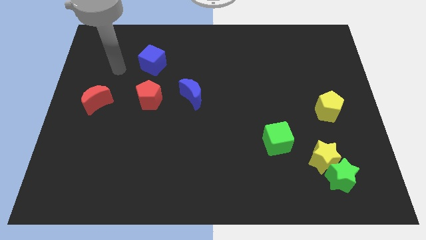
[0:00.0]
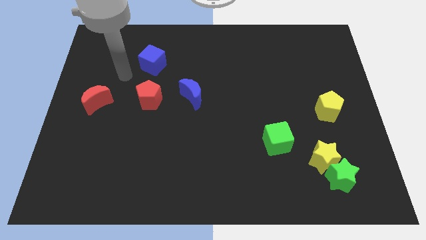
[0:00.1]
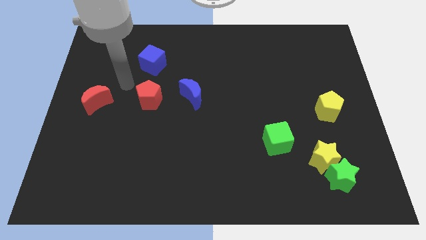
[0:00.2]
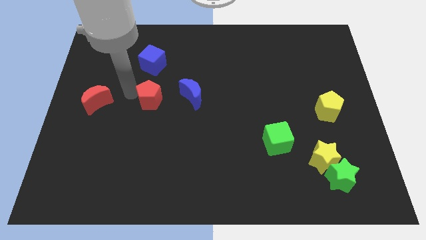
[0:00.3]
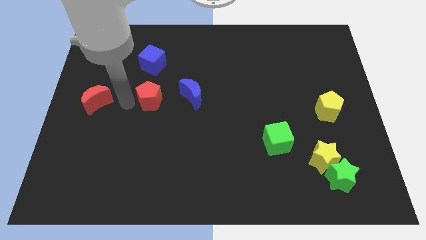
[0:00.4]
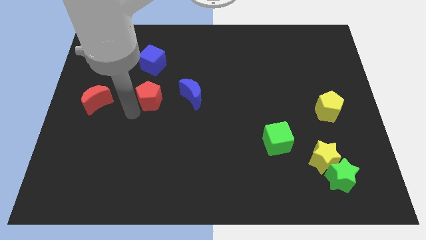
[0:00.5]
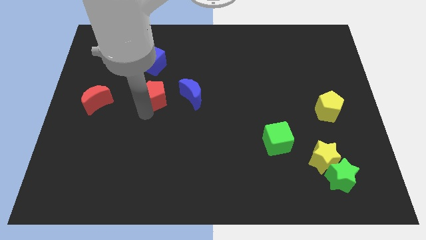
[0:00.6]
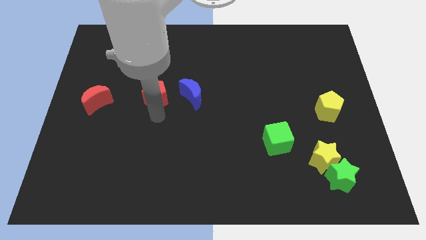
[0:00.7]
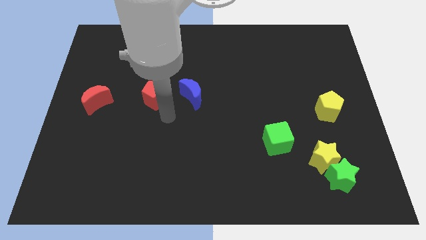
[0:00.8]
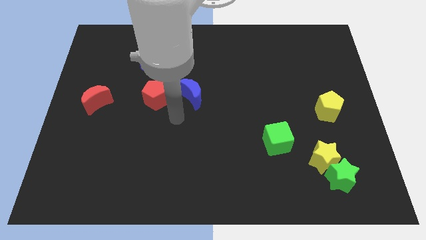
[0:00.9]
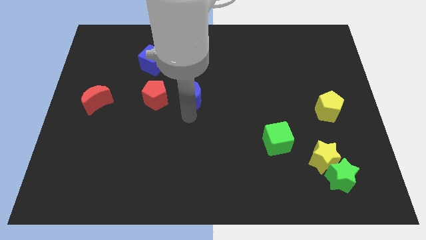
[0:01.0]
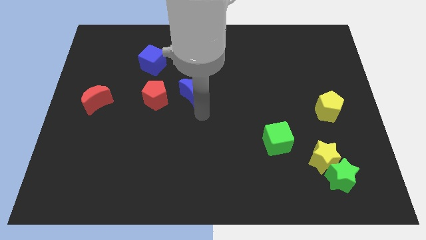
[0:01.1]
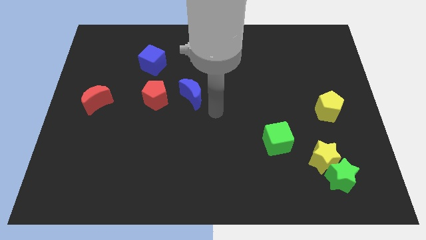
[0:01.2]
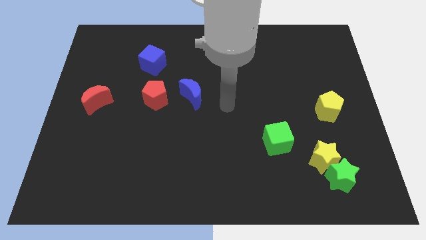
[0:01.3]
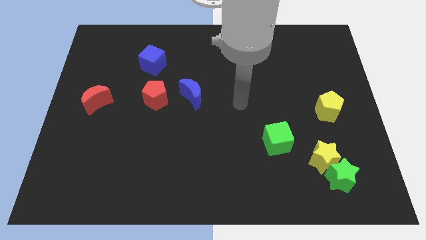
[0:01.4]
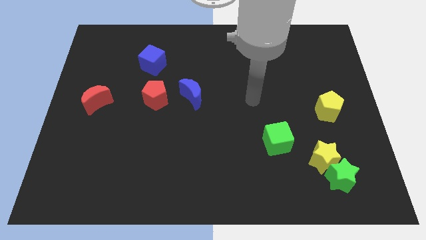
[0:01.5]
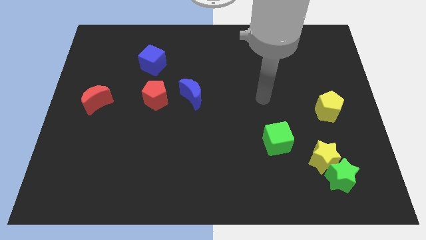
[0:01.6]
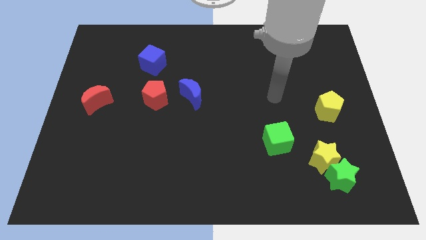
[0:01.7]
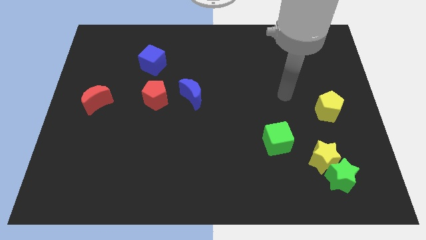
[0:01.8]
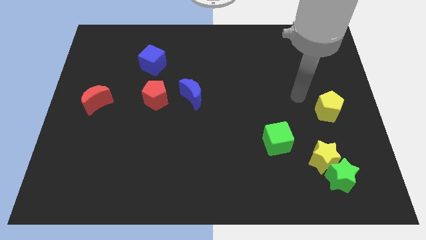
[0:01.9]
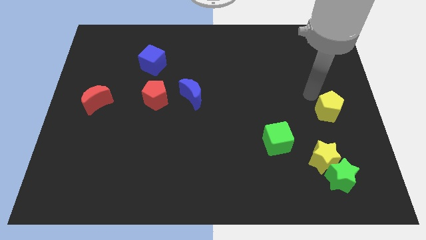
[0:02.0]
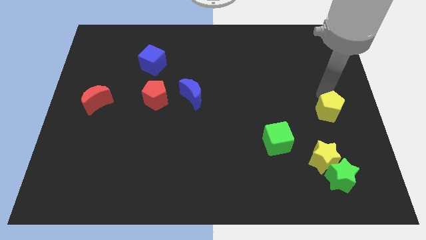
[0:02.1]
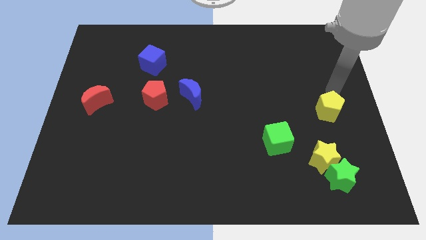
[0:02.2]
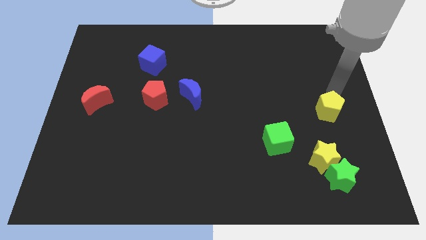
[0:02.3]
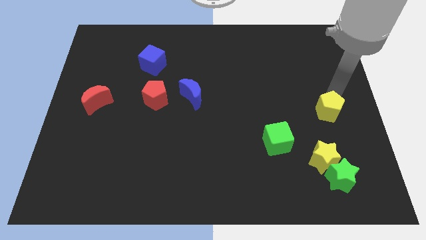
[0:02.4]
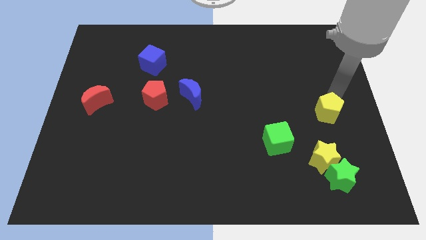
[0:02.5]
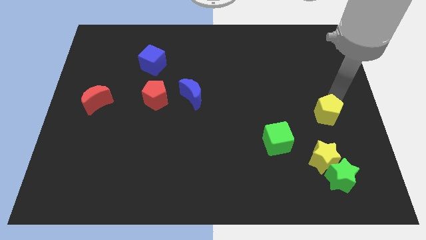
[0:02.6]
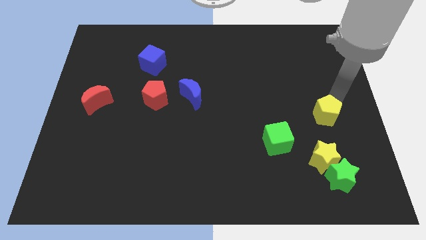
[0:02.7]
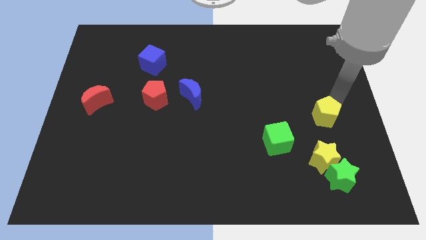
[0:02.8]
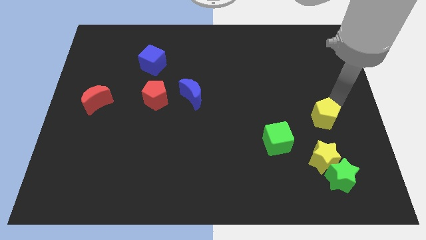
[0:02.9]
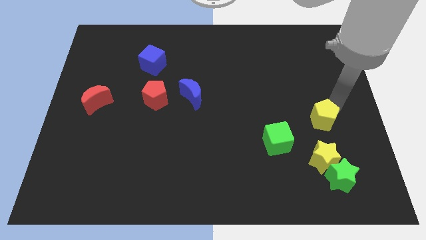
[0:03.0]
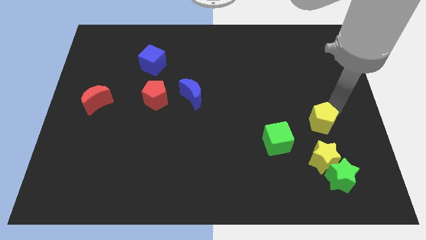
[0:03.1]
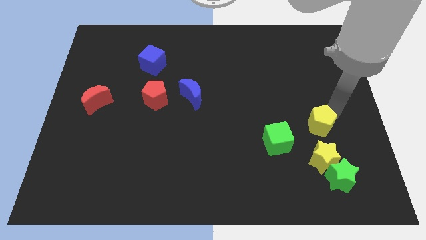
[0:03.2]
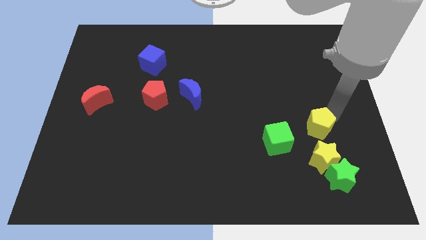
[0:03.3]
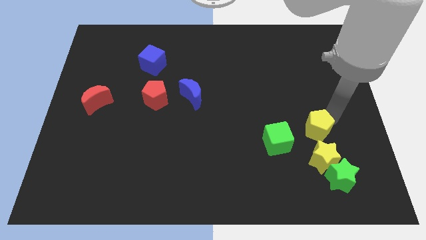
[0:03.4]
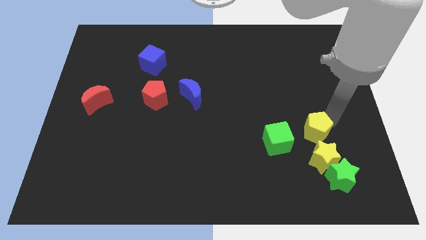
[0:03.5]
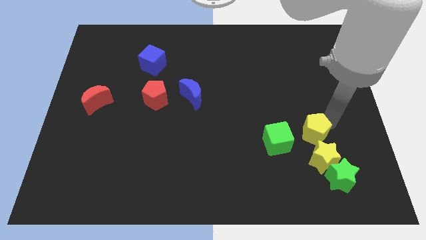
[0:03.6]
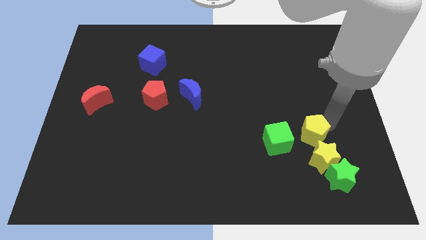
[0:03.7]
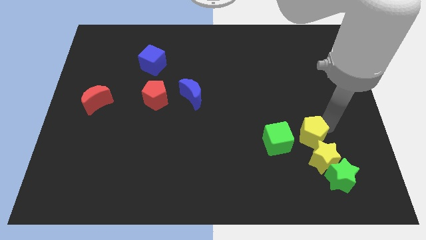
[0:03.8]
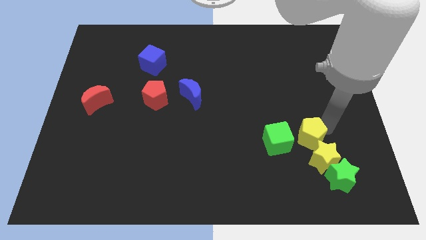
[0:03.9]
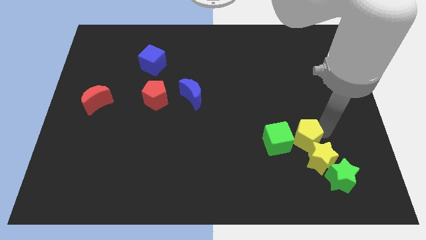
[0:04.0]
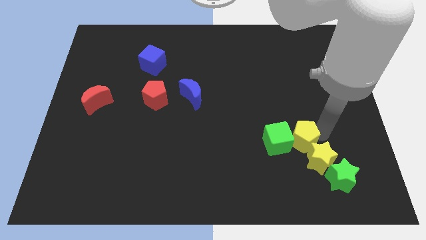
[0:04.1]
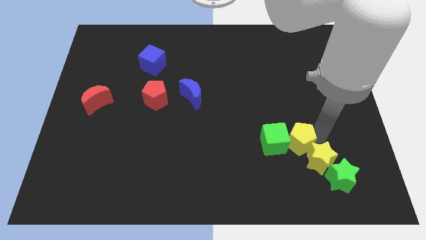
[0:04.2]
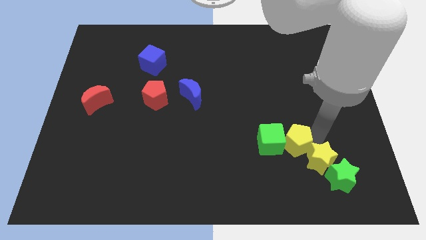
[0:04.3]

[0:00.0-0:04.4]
put the yellow pentagon just left of the yellow star

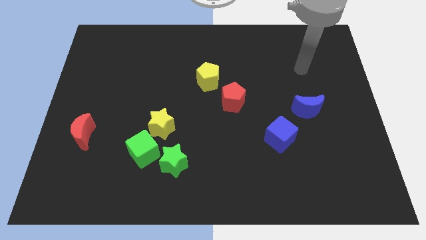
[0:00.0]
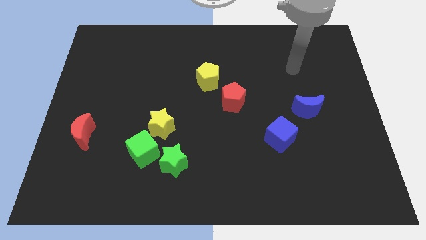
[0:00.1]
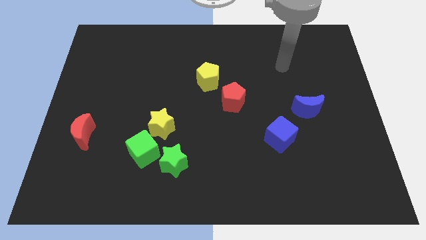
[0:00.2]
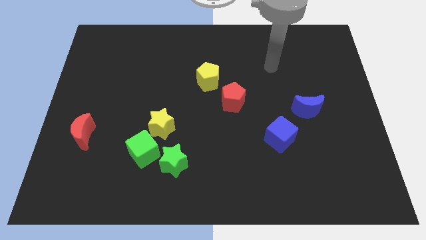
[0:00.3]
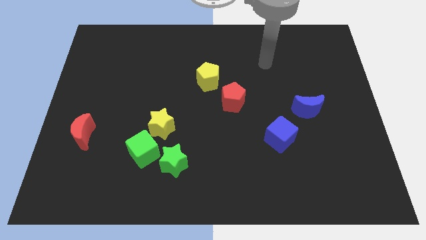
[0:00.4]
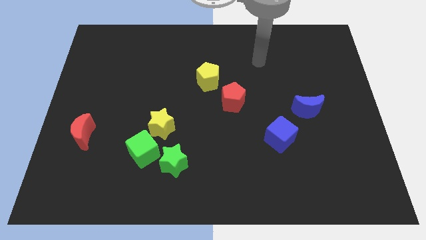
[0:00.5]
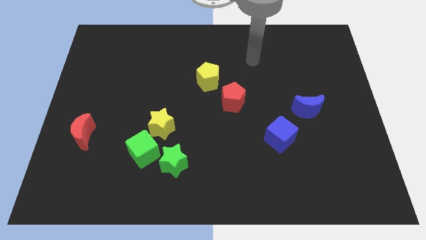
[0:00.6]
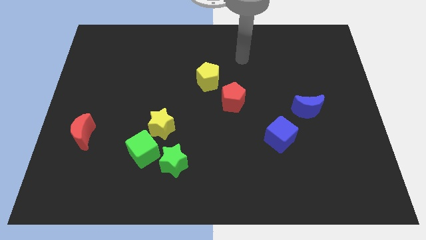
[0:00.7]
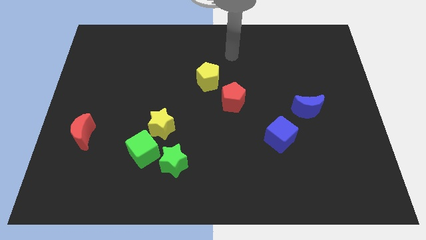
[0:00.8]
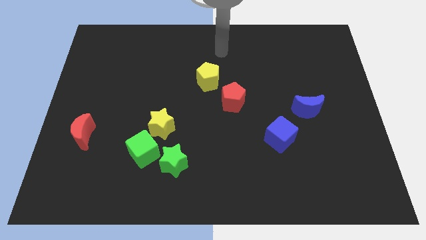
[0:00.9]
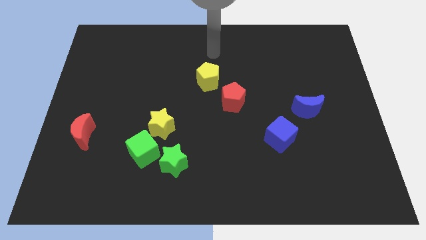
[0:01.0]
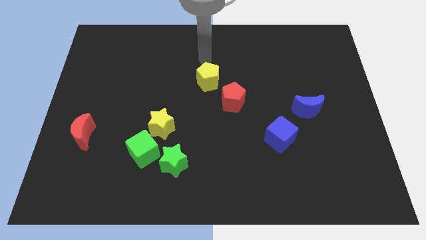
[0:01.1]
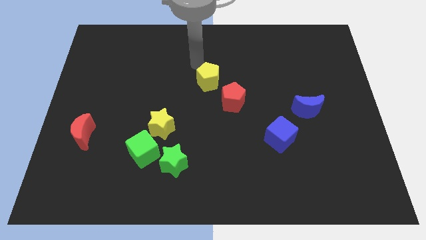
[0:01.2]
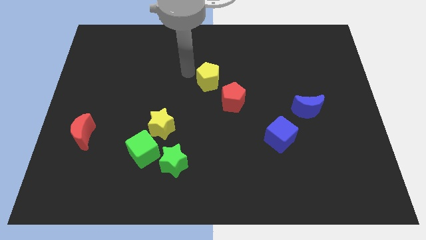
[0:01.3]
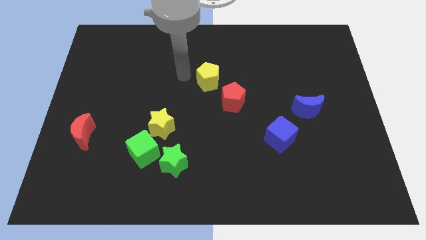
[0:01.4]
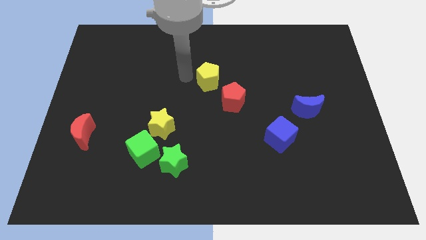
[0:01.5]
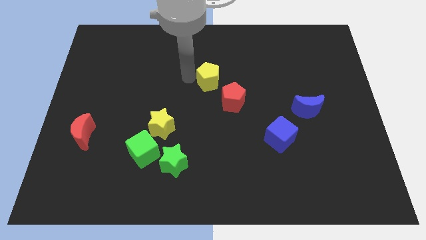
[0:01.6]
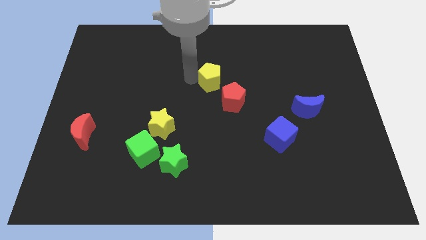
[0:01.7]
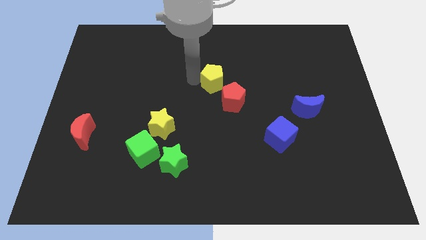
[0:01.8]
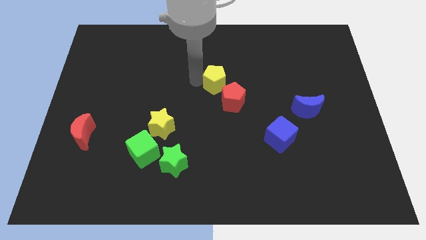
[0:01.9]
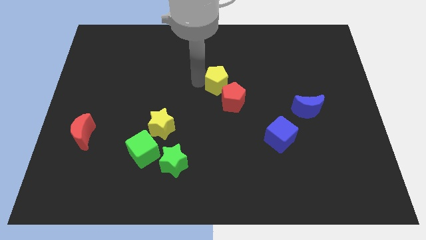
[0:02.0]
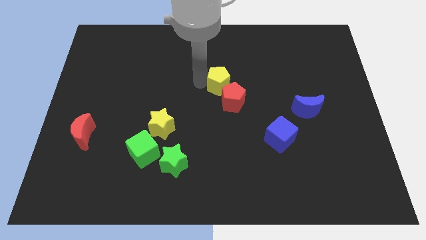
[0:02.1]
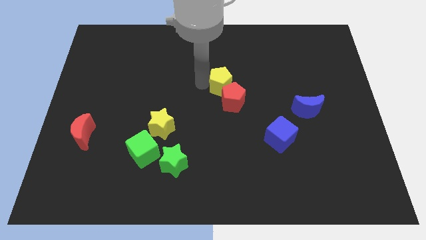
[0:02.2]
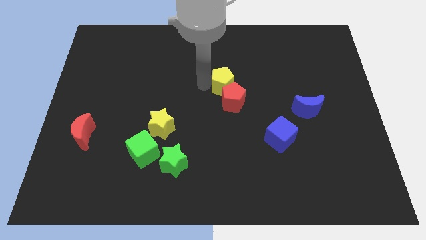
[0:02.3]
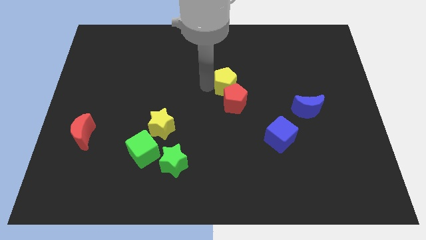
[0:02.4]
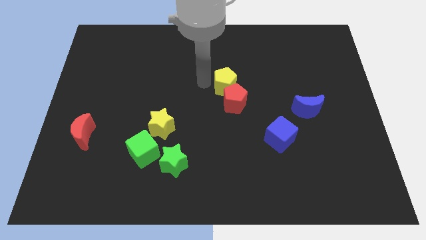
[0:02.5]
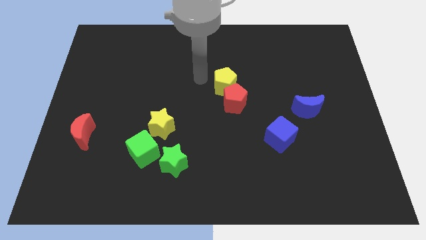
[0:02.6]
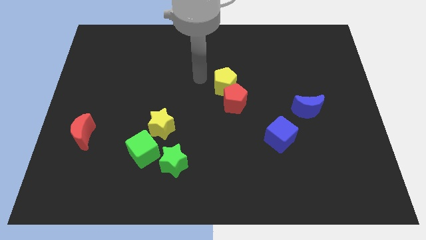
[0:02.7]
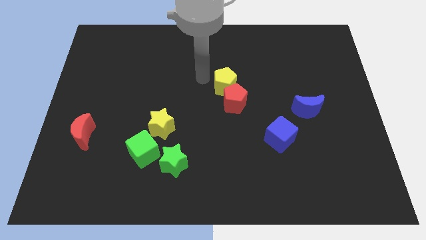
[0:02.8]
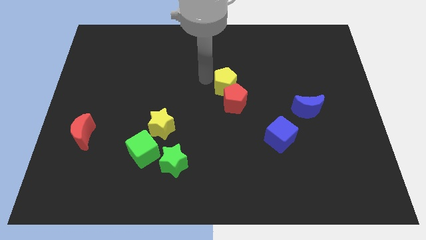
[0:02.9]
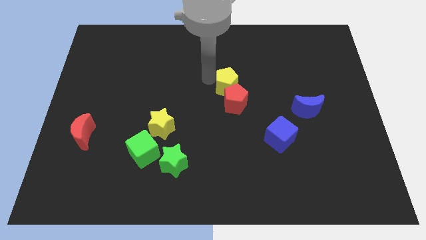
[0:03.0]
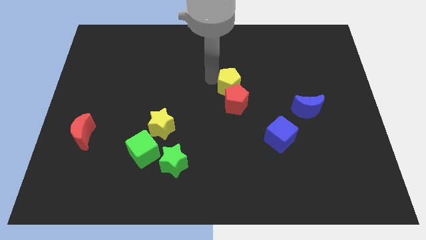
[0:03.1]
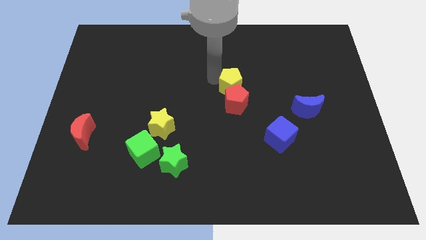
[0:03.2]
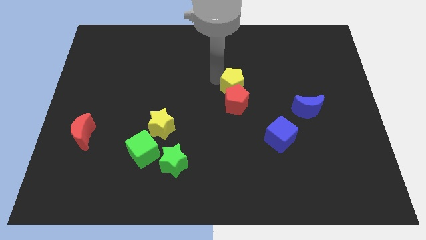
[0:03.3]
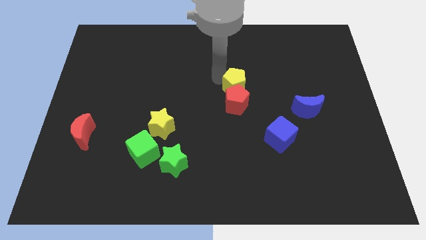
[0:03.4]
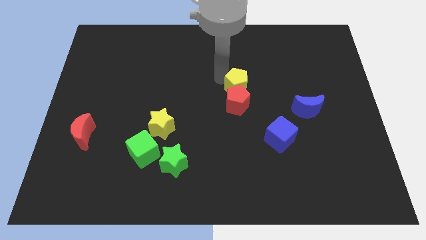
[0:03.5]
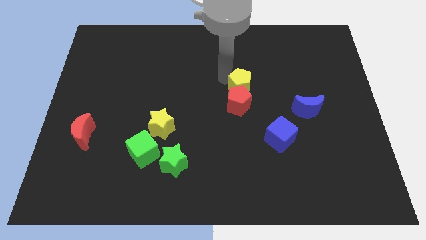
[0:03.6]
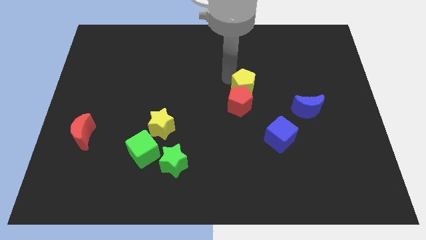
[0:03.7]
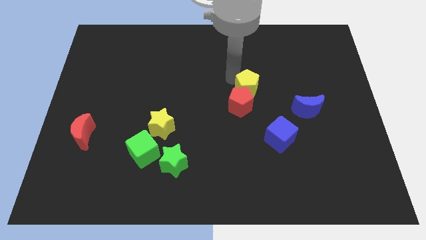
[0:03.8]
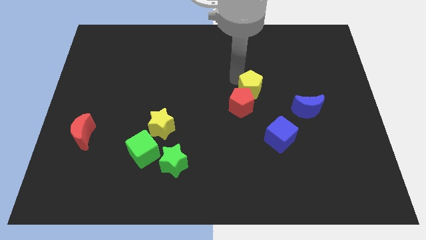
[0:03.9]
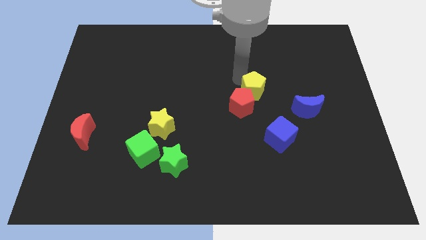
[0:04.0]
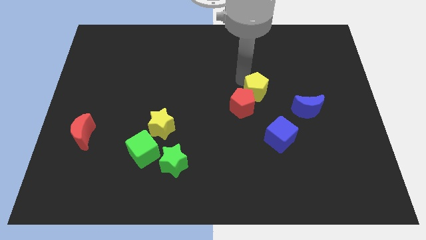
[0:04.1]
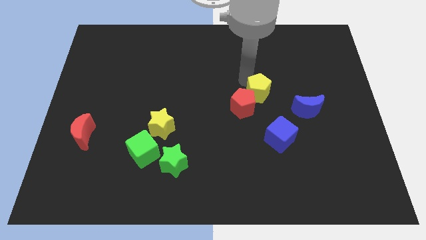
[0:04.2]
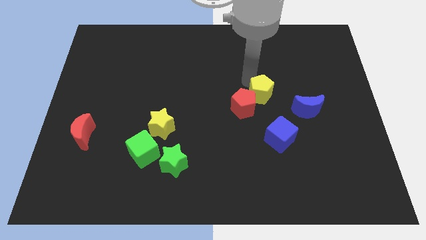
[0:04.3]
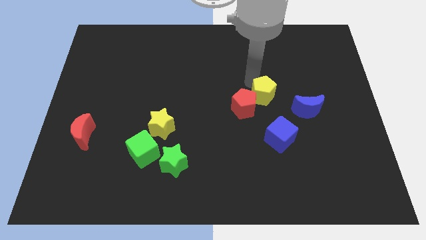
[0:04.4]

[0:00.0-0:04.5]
push the yellow pentagon left of the blue moon
